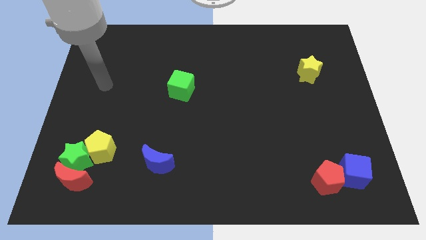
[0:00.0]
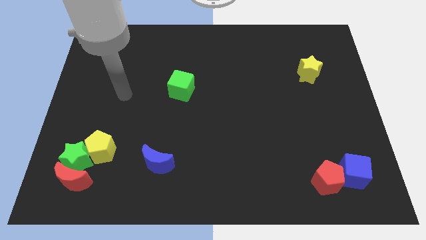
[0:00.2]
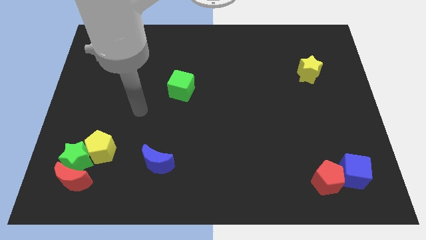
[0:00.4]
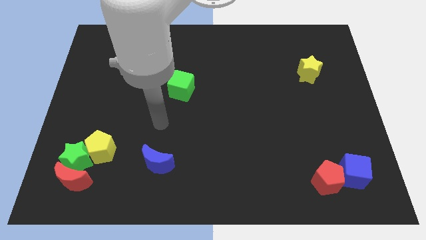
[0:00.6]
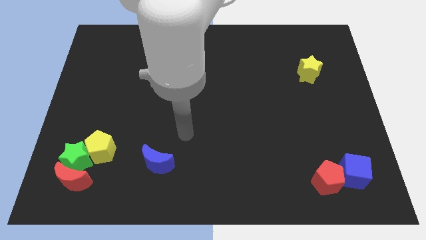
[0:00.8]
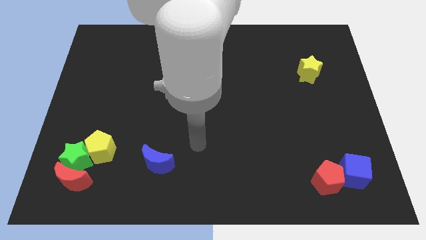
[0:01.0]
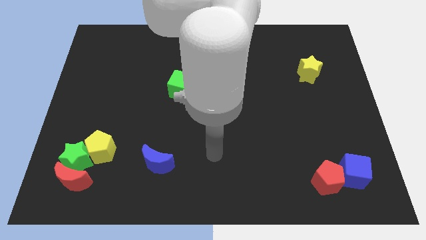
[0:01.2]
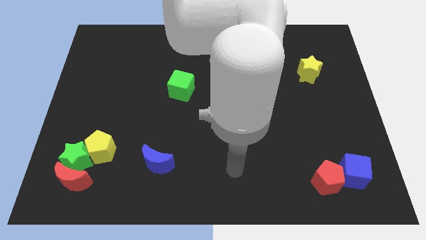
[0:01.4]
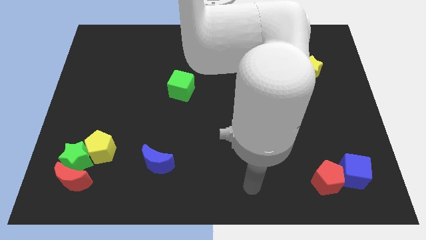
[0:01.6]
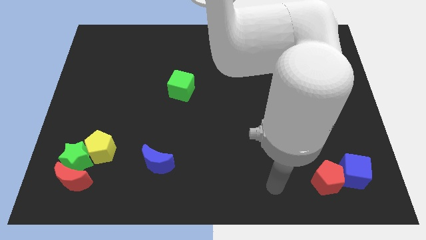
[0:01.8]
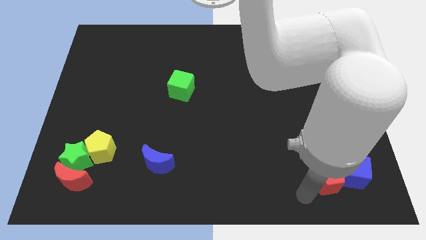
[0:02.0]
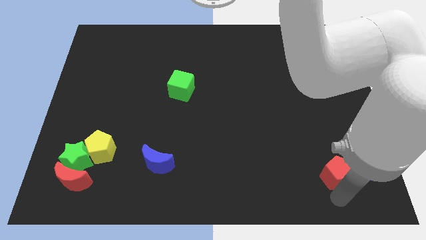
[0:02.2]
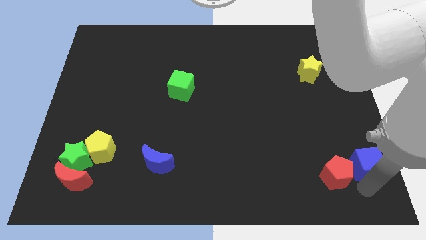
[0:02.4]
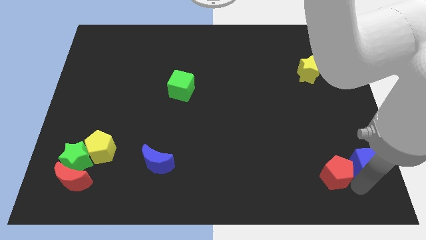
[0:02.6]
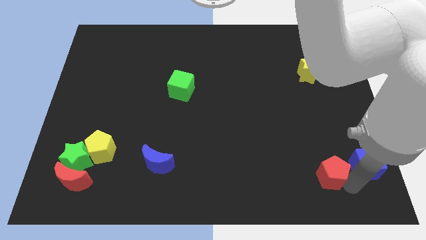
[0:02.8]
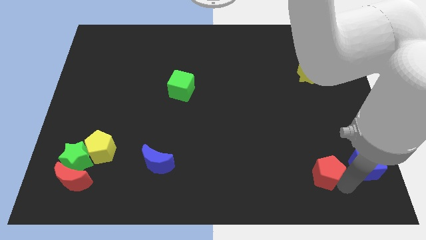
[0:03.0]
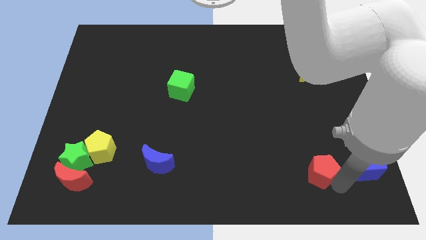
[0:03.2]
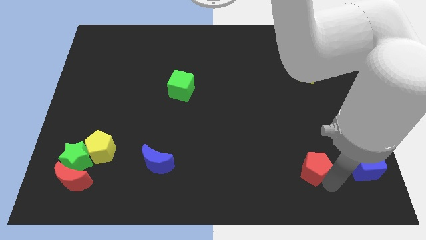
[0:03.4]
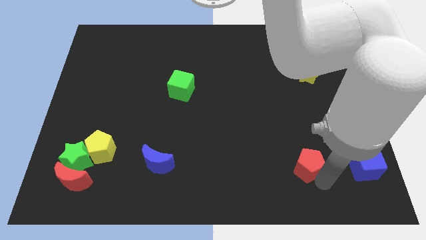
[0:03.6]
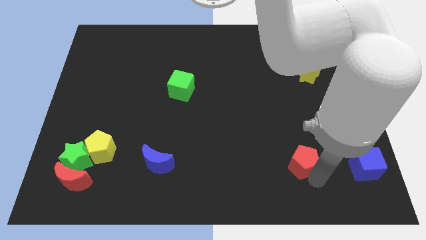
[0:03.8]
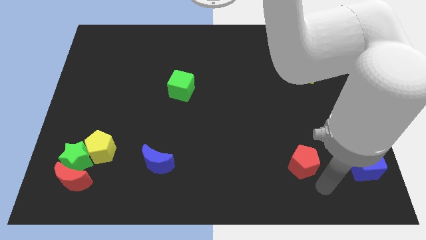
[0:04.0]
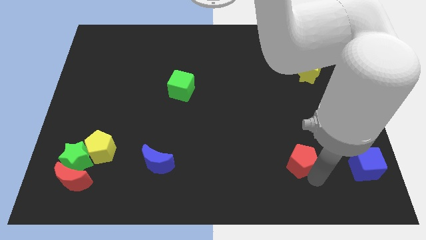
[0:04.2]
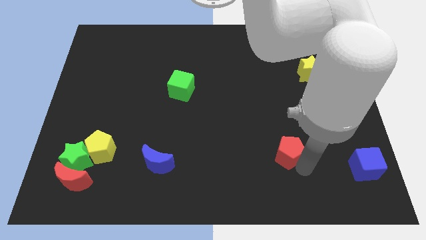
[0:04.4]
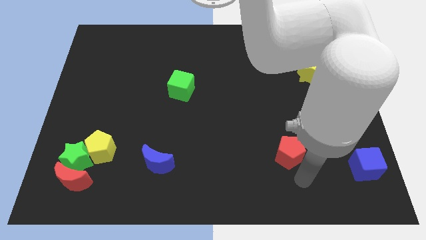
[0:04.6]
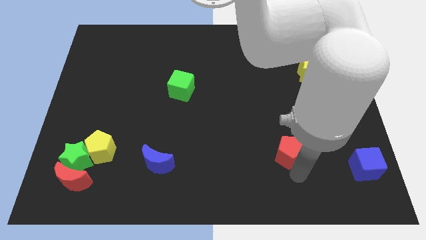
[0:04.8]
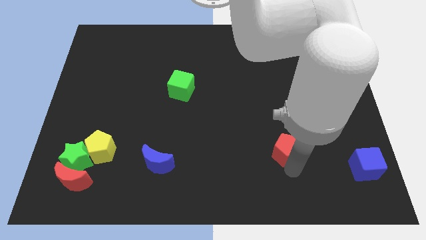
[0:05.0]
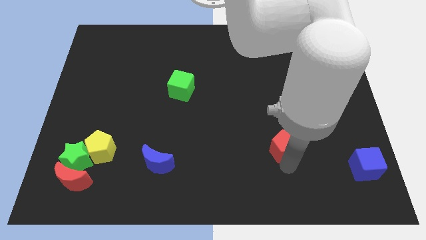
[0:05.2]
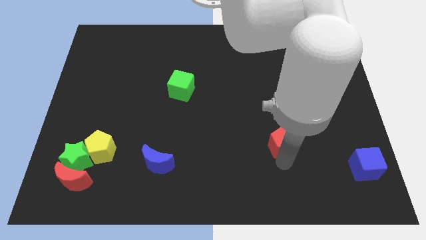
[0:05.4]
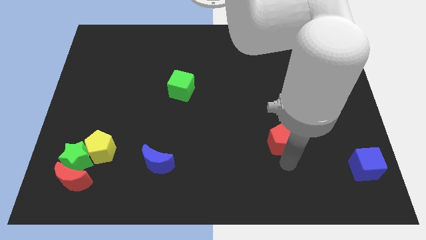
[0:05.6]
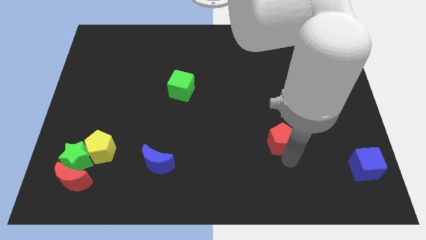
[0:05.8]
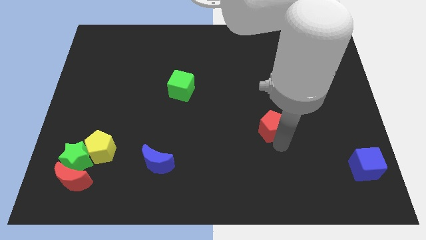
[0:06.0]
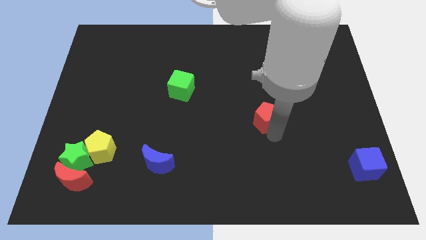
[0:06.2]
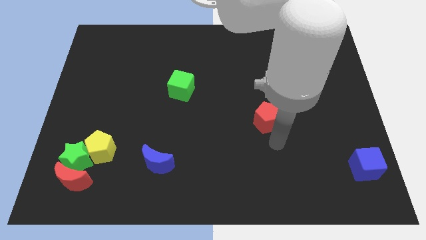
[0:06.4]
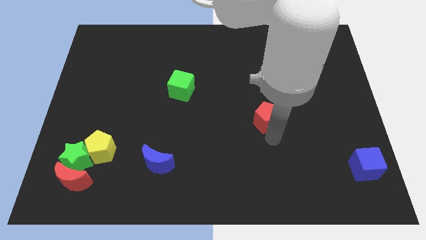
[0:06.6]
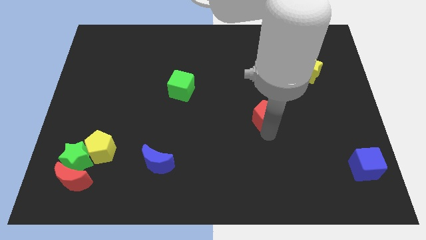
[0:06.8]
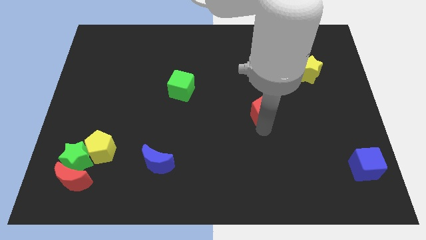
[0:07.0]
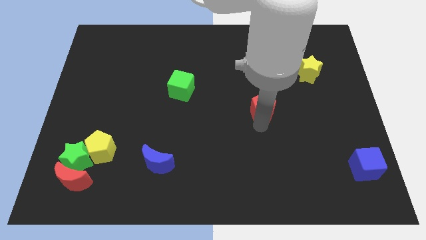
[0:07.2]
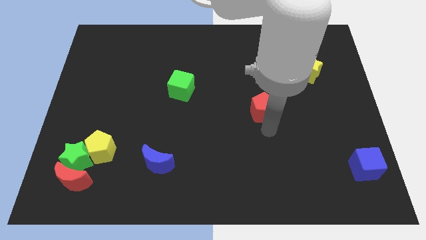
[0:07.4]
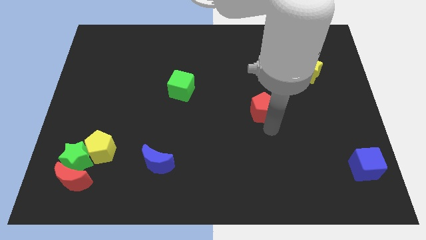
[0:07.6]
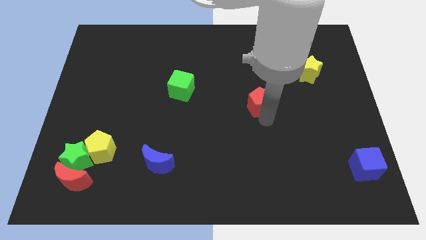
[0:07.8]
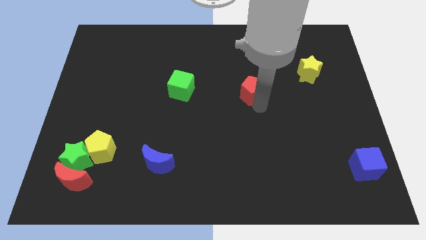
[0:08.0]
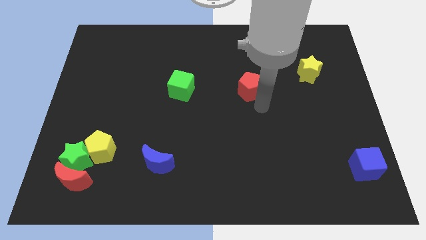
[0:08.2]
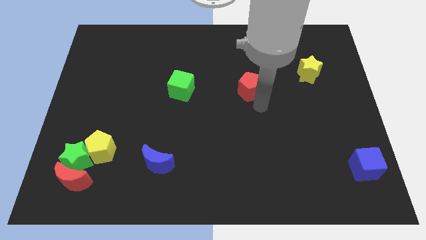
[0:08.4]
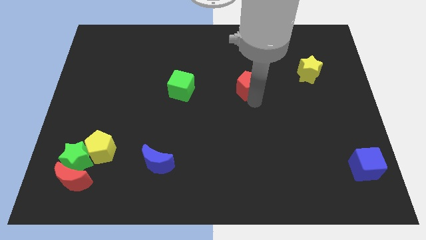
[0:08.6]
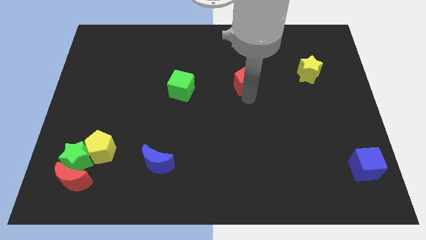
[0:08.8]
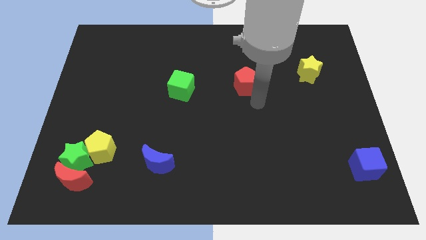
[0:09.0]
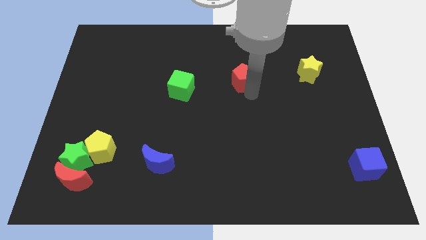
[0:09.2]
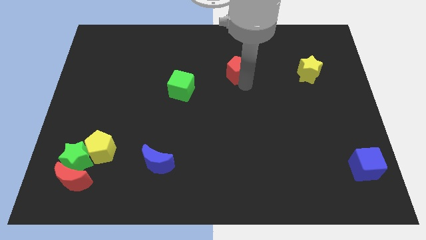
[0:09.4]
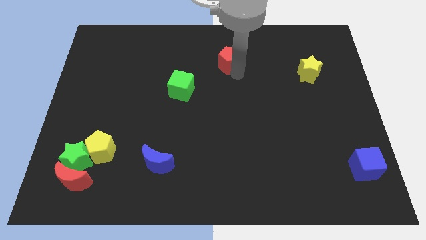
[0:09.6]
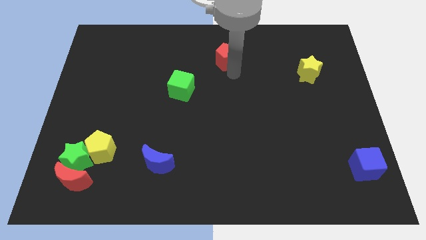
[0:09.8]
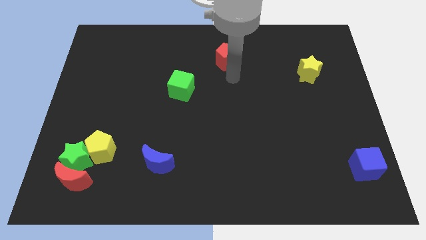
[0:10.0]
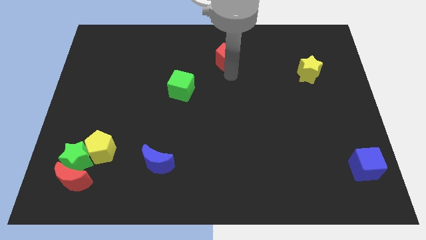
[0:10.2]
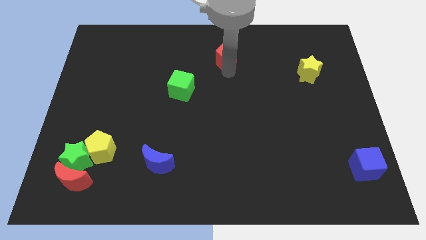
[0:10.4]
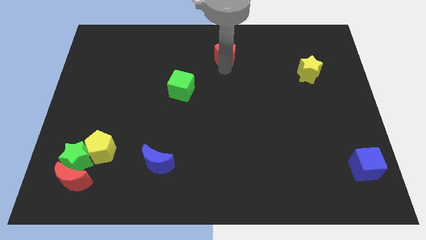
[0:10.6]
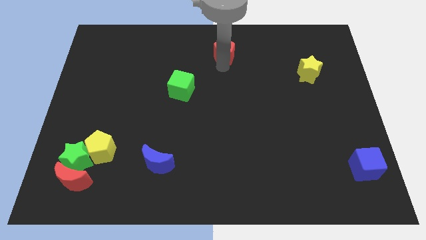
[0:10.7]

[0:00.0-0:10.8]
push the red pentagon to the top

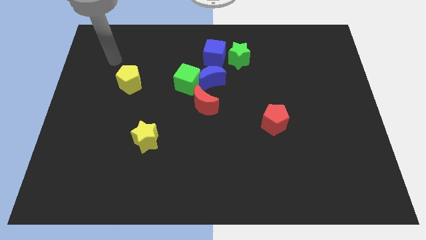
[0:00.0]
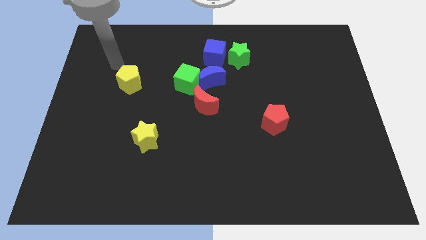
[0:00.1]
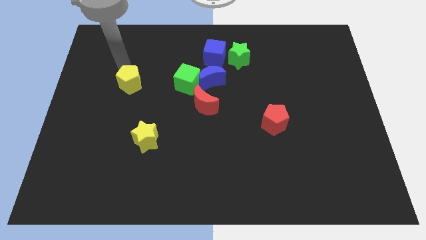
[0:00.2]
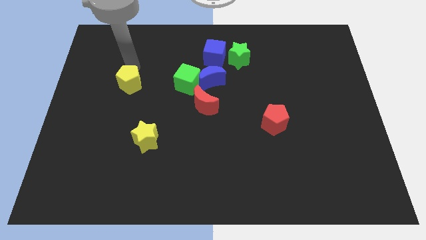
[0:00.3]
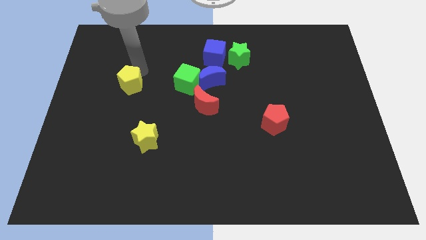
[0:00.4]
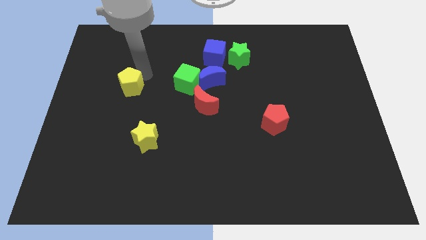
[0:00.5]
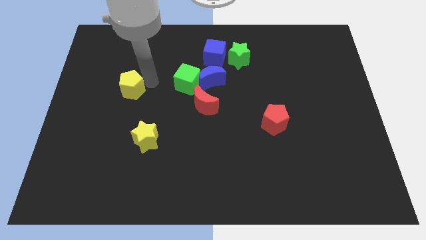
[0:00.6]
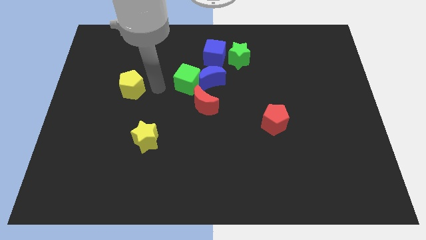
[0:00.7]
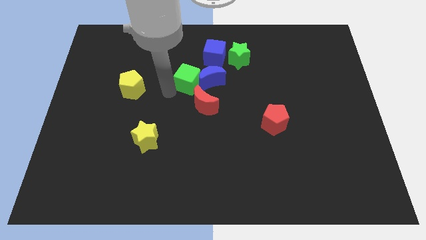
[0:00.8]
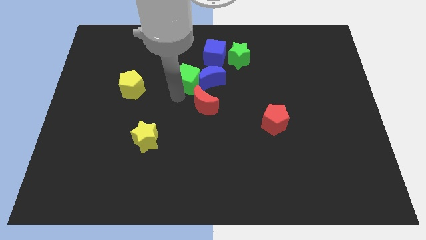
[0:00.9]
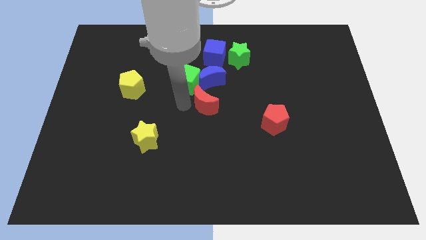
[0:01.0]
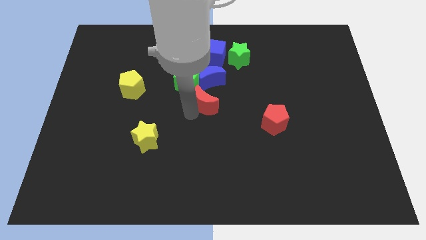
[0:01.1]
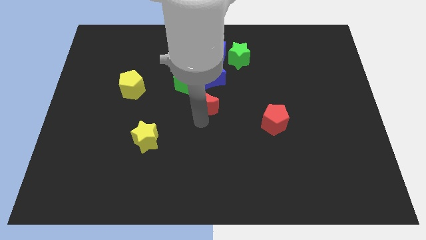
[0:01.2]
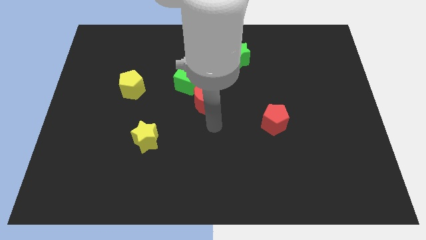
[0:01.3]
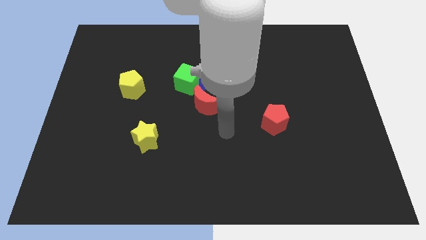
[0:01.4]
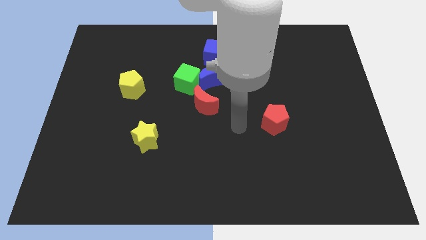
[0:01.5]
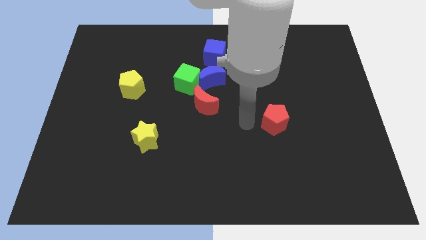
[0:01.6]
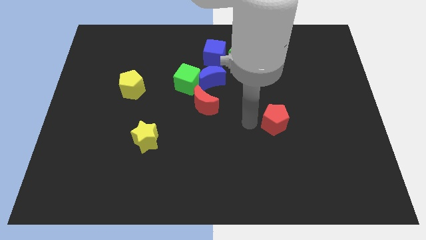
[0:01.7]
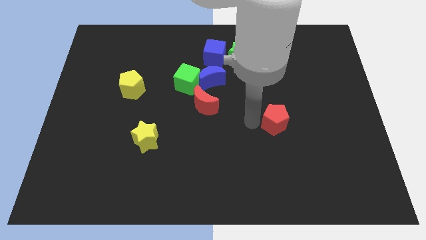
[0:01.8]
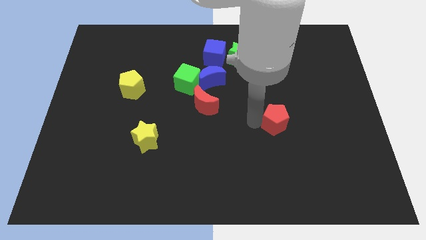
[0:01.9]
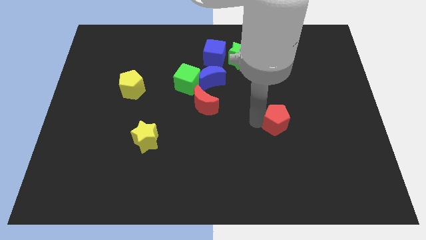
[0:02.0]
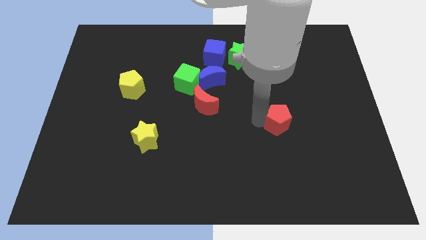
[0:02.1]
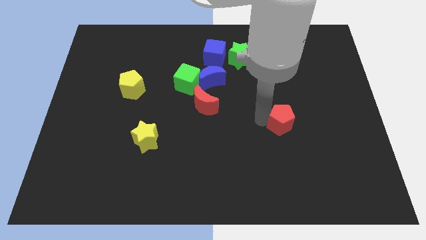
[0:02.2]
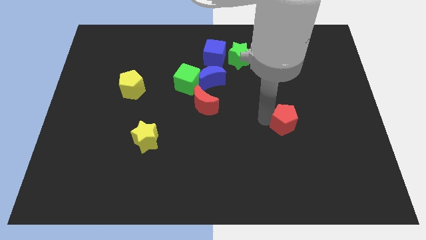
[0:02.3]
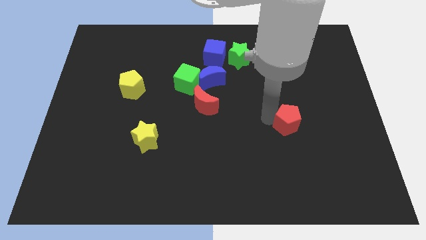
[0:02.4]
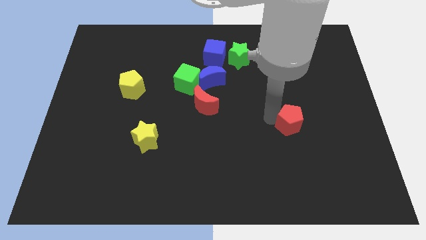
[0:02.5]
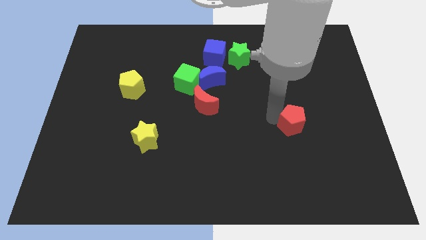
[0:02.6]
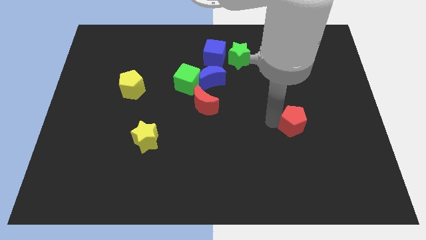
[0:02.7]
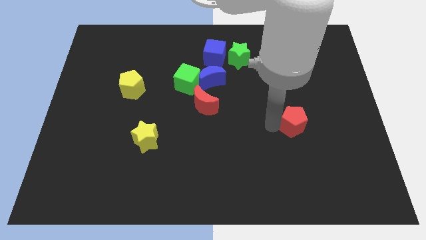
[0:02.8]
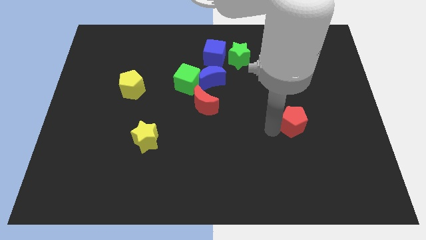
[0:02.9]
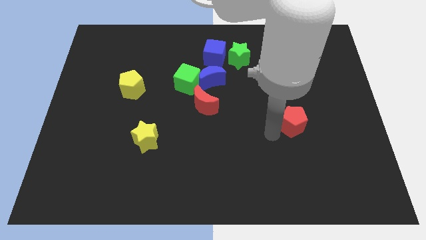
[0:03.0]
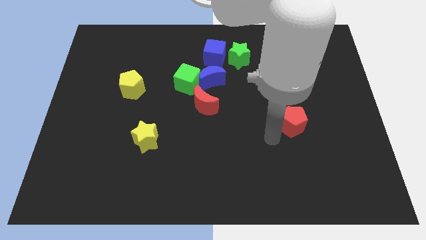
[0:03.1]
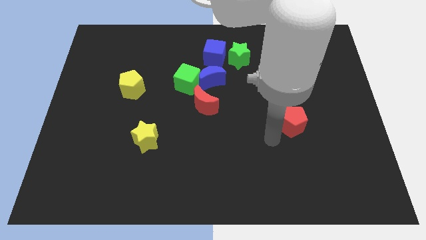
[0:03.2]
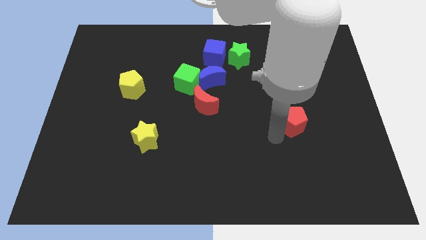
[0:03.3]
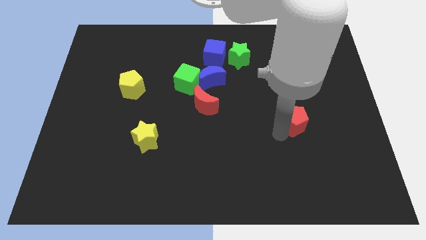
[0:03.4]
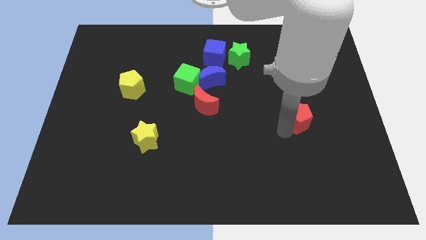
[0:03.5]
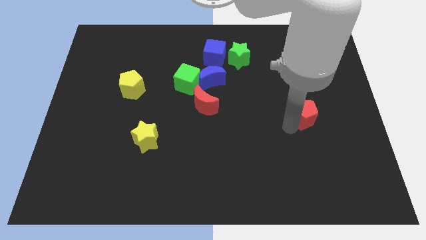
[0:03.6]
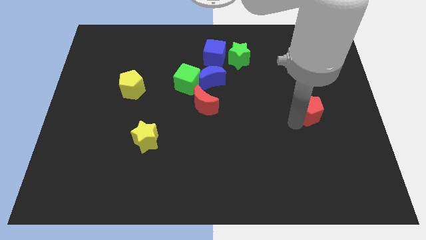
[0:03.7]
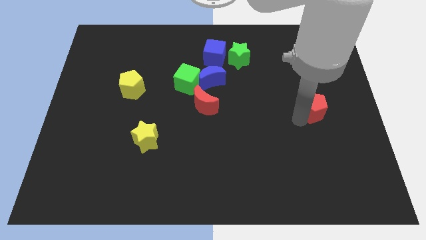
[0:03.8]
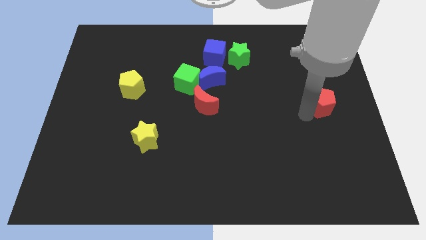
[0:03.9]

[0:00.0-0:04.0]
put the red pentagon to the right side
